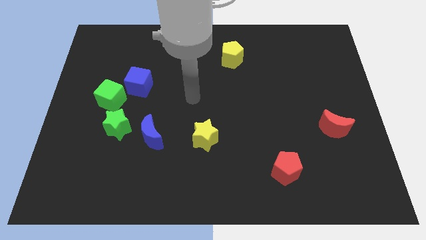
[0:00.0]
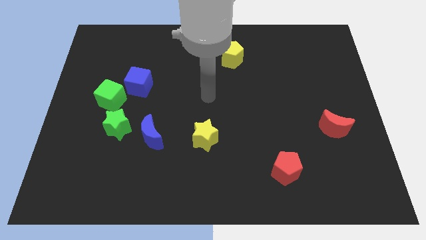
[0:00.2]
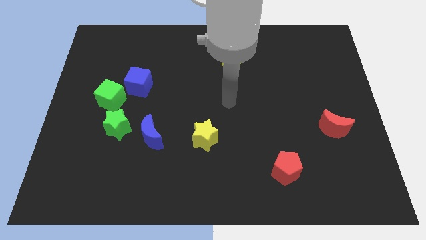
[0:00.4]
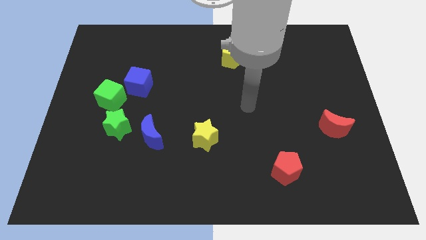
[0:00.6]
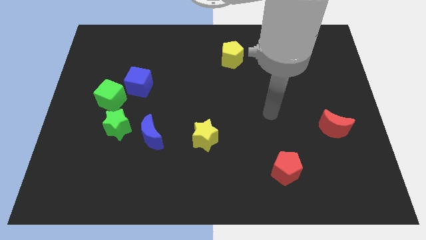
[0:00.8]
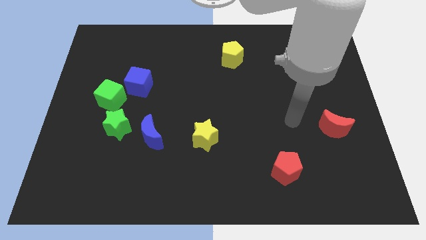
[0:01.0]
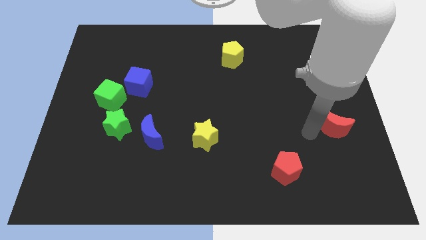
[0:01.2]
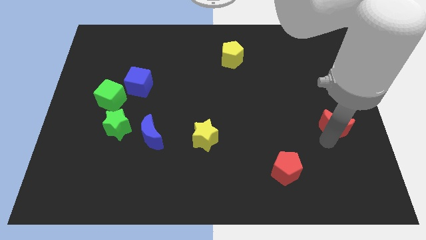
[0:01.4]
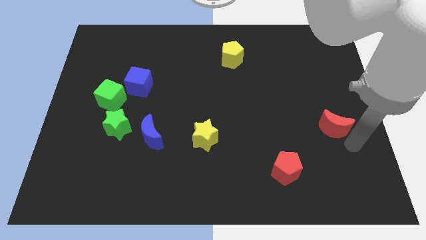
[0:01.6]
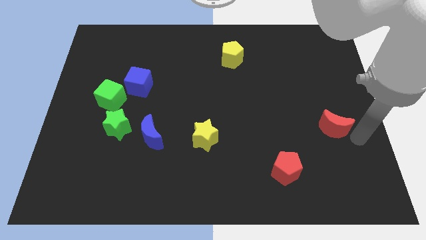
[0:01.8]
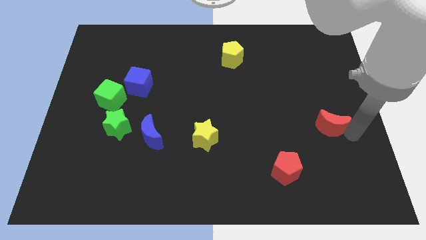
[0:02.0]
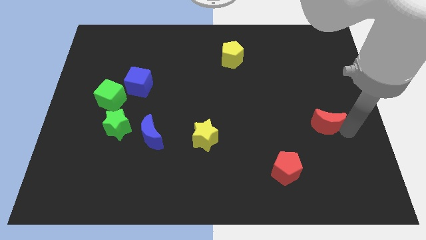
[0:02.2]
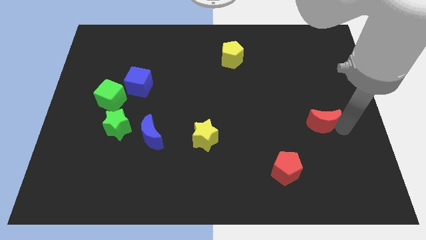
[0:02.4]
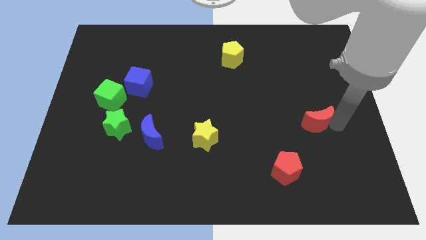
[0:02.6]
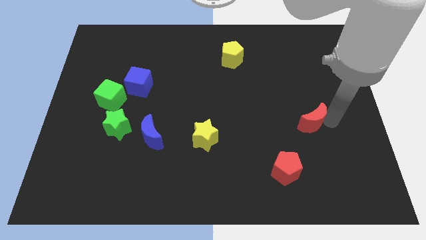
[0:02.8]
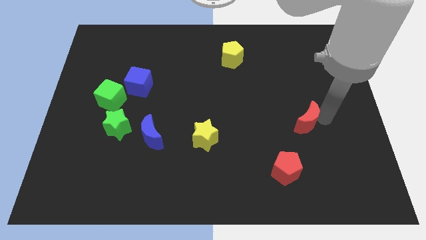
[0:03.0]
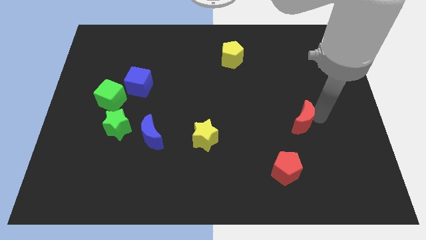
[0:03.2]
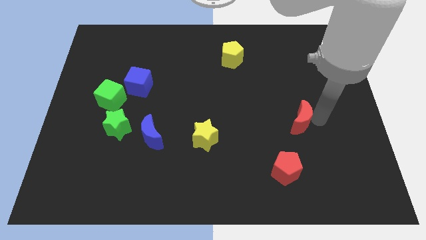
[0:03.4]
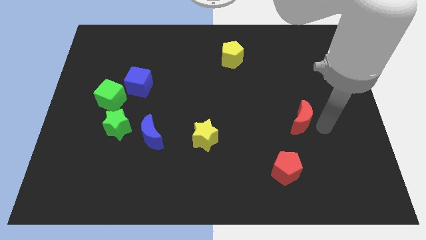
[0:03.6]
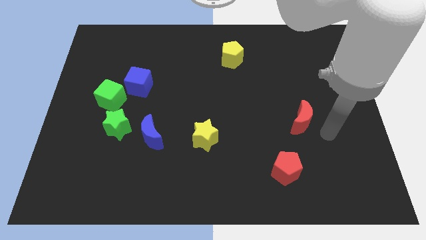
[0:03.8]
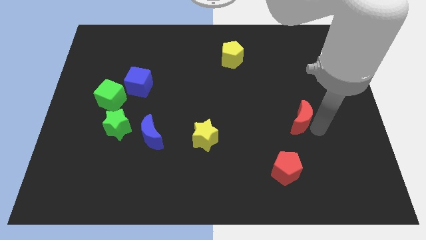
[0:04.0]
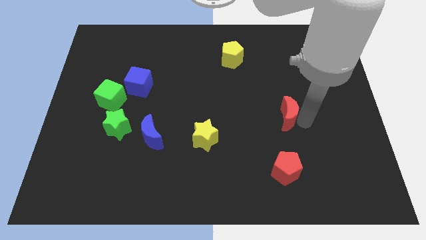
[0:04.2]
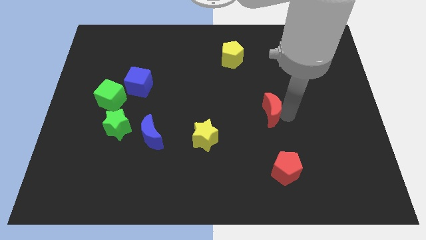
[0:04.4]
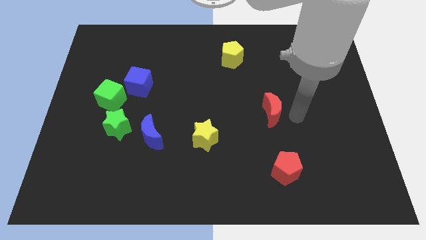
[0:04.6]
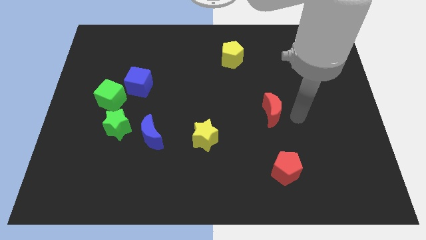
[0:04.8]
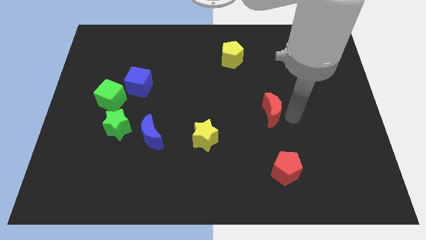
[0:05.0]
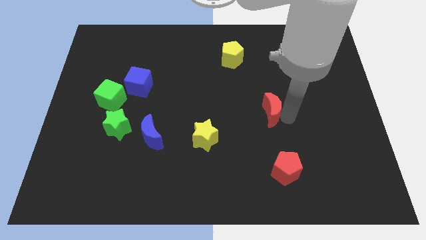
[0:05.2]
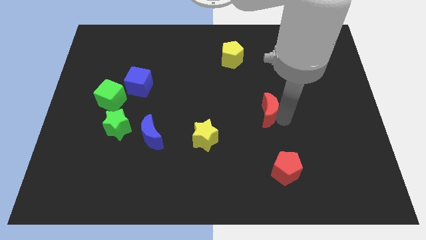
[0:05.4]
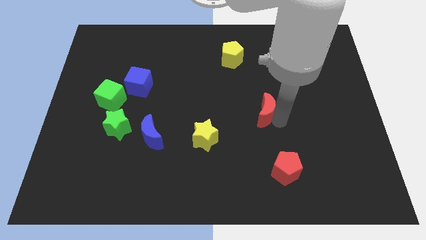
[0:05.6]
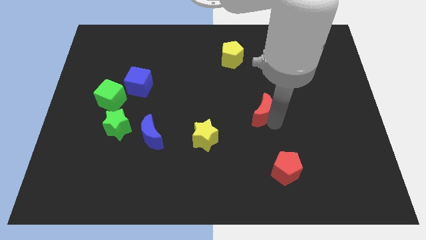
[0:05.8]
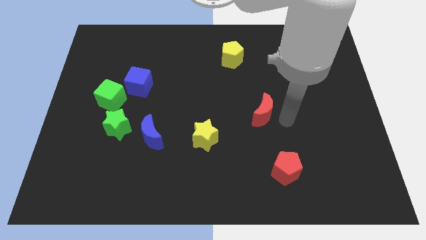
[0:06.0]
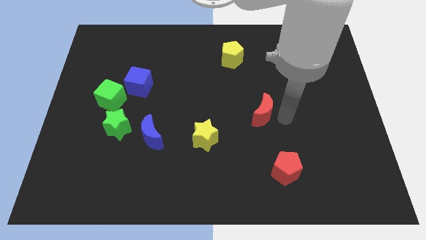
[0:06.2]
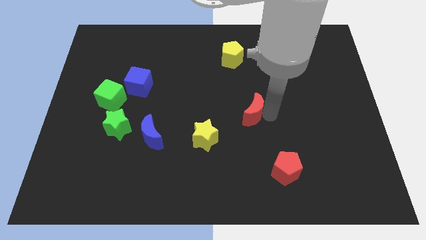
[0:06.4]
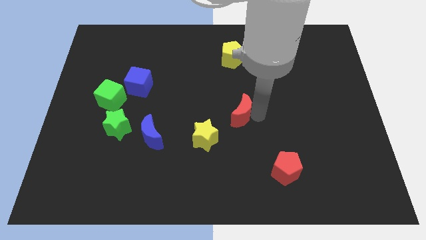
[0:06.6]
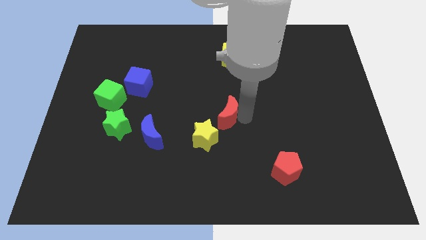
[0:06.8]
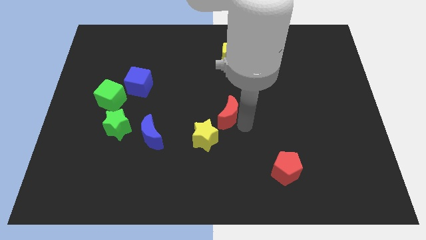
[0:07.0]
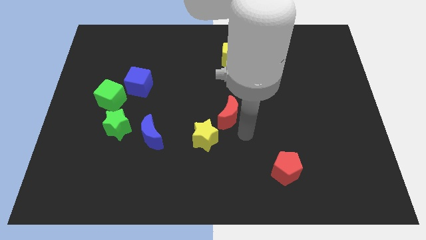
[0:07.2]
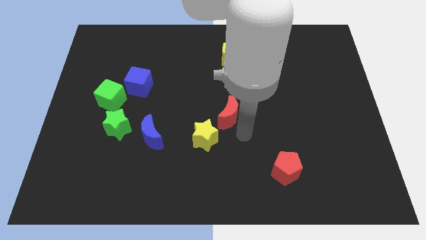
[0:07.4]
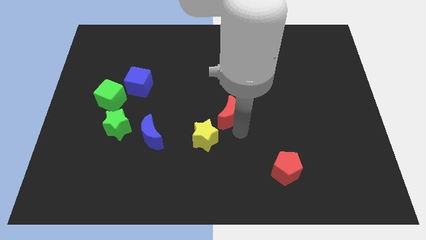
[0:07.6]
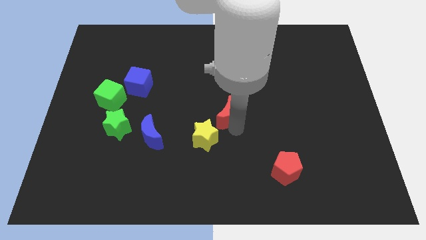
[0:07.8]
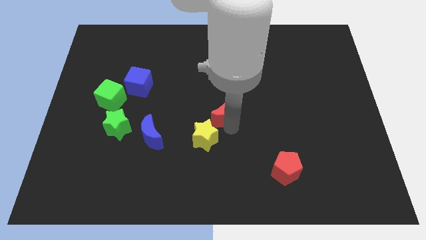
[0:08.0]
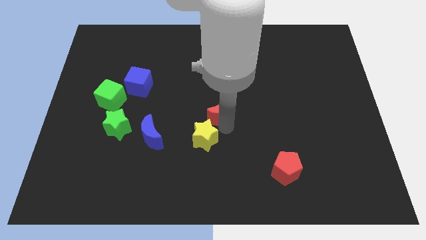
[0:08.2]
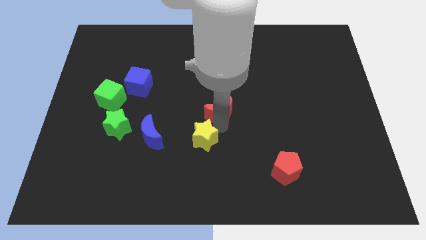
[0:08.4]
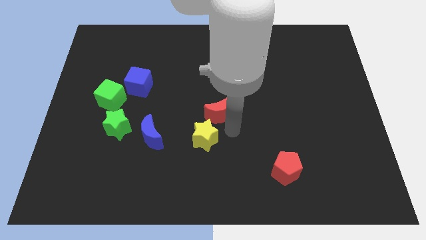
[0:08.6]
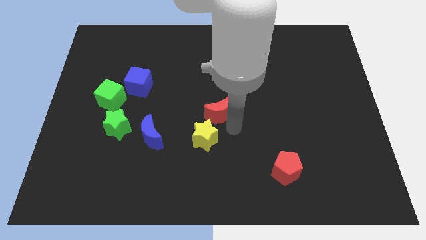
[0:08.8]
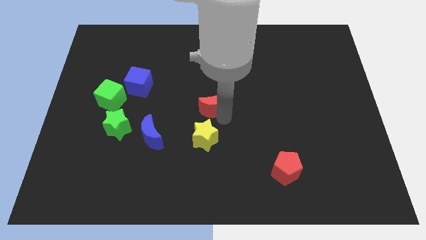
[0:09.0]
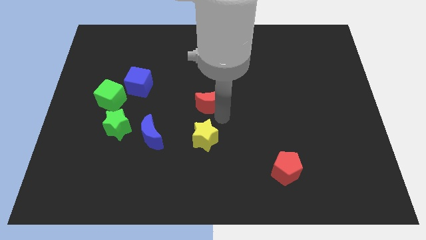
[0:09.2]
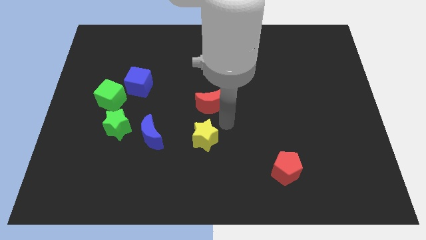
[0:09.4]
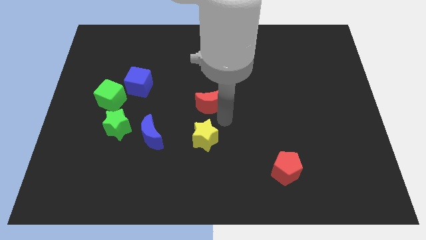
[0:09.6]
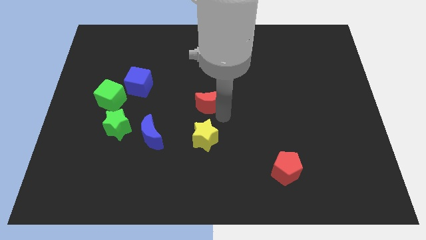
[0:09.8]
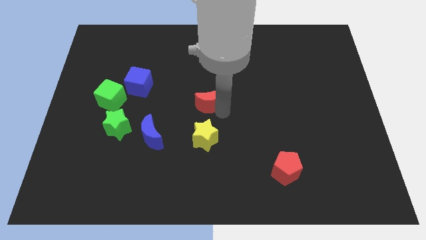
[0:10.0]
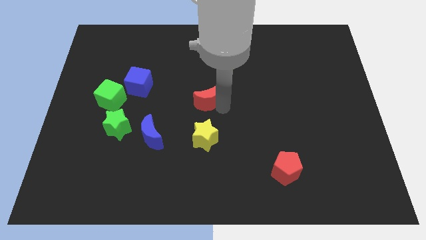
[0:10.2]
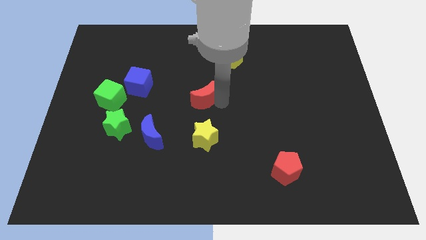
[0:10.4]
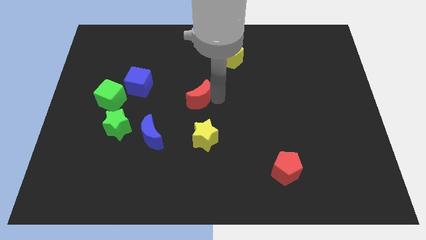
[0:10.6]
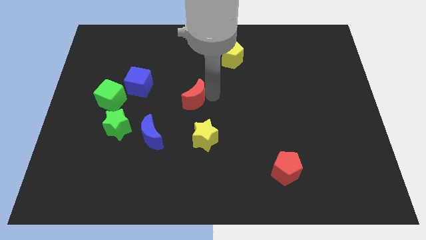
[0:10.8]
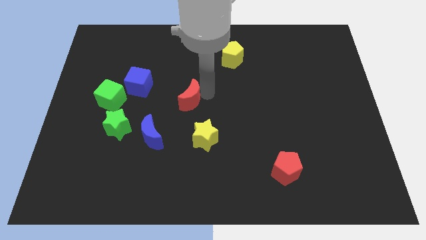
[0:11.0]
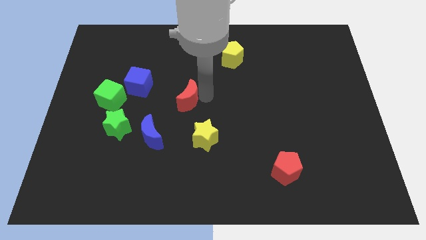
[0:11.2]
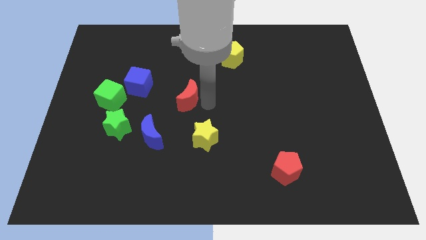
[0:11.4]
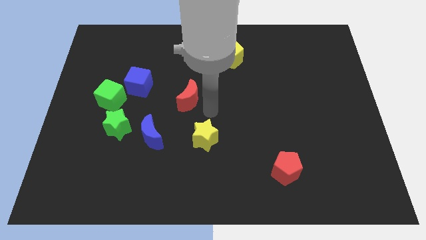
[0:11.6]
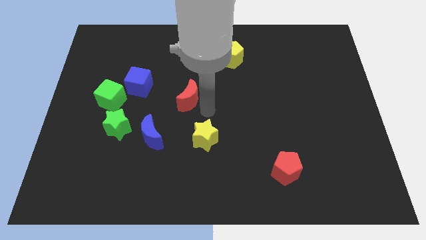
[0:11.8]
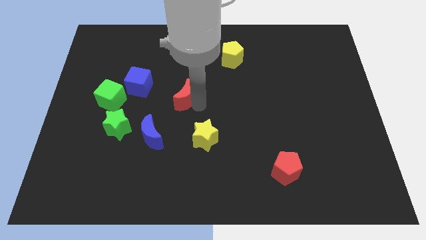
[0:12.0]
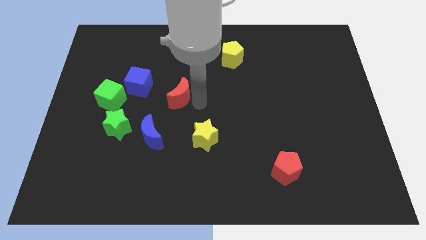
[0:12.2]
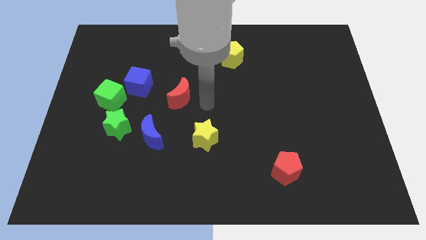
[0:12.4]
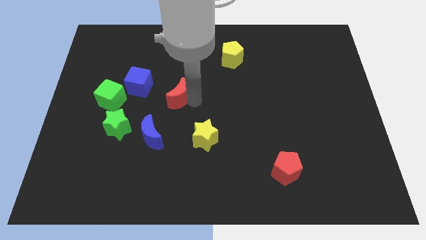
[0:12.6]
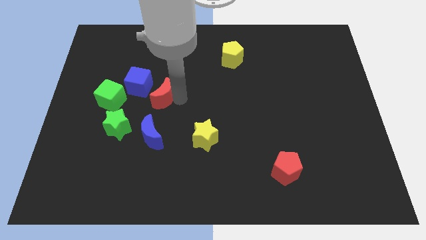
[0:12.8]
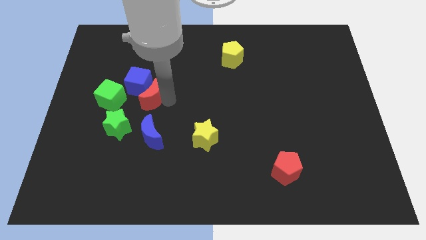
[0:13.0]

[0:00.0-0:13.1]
move the red moon towards the blue cube

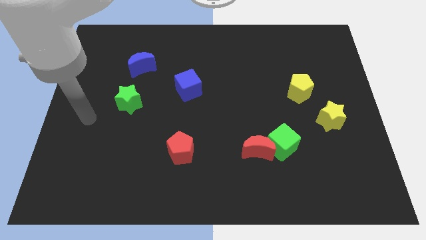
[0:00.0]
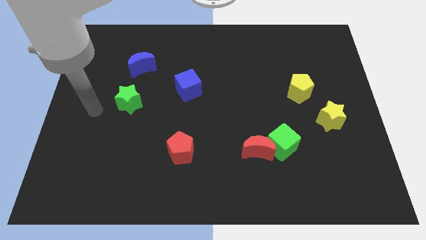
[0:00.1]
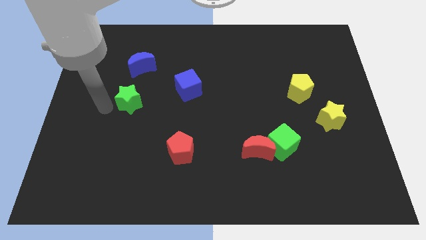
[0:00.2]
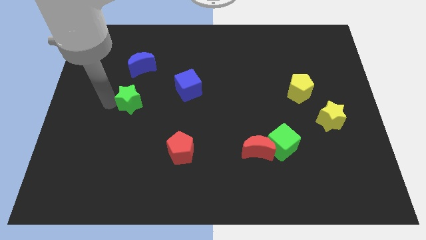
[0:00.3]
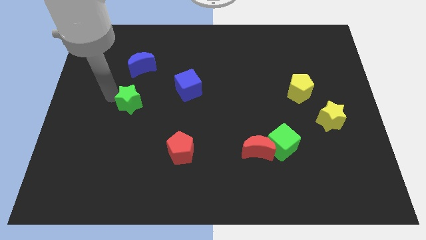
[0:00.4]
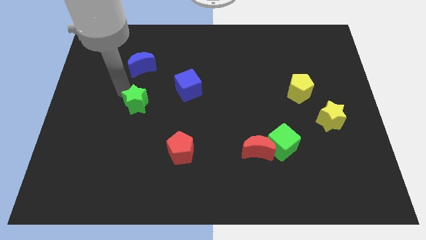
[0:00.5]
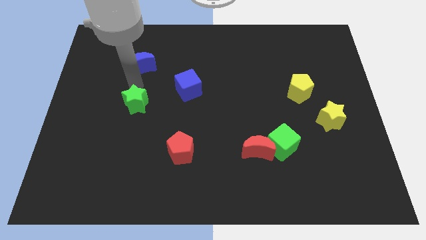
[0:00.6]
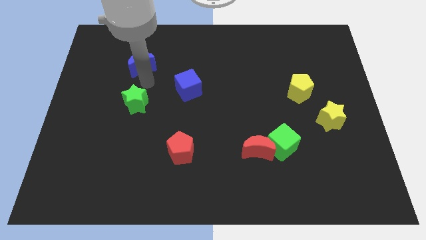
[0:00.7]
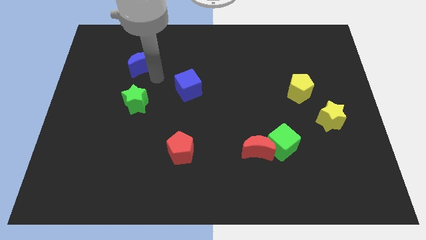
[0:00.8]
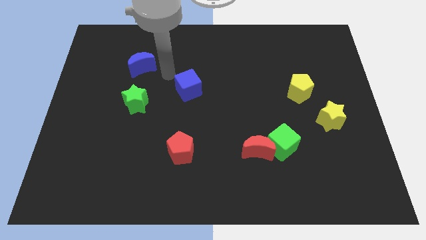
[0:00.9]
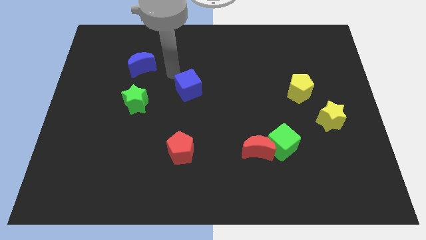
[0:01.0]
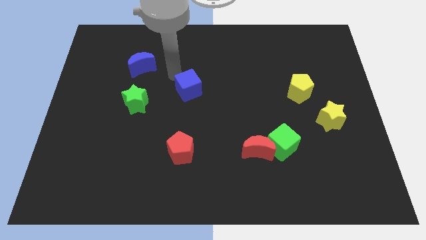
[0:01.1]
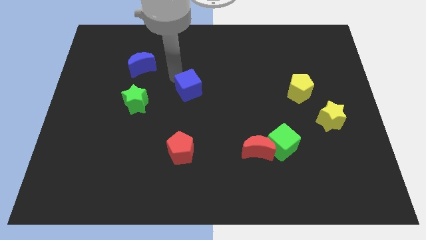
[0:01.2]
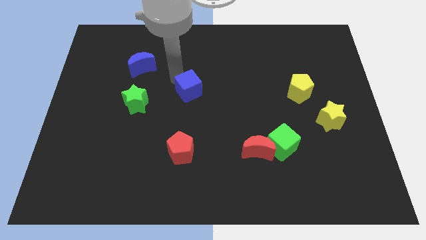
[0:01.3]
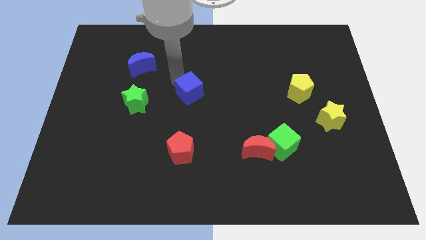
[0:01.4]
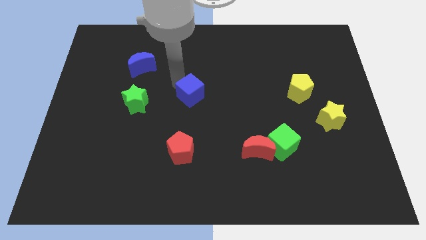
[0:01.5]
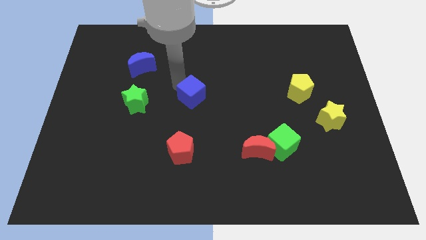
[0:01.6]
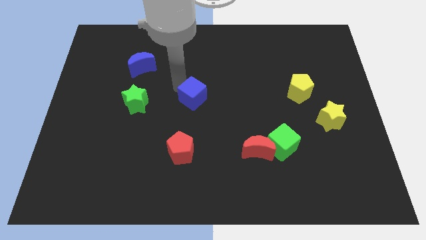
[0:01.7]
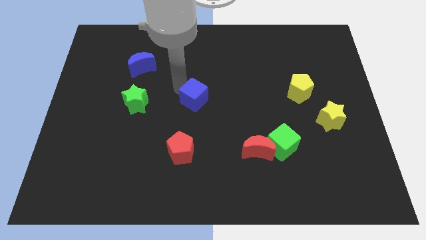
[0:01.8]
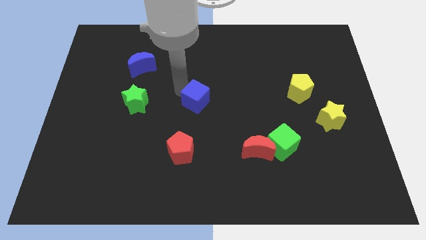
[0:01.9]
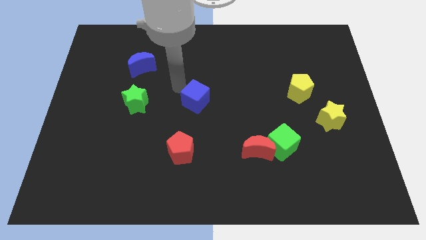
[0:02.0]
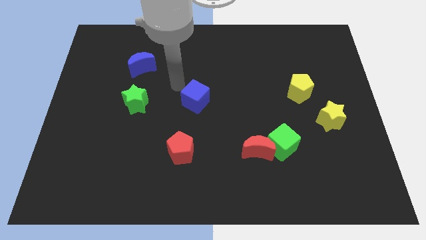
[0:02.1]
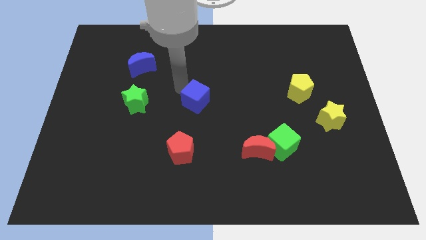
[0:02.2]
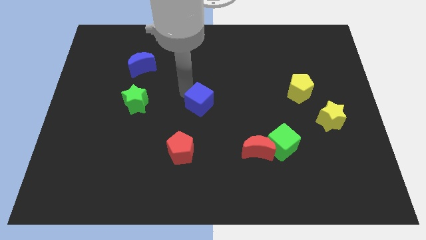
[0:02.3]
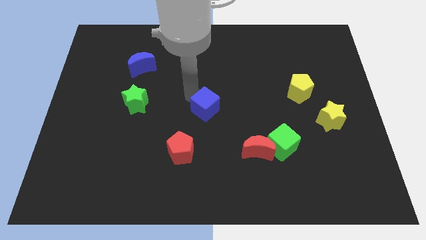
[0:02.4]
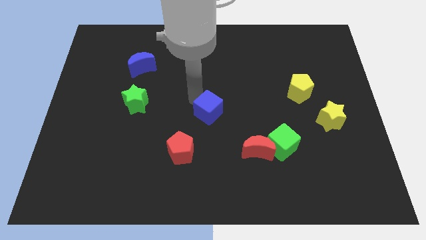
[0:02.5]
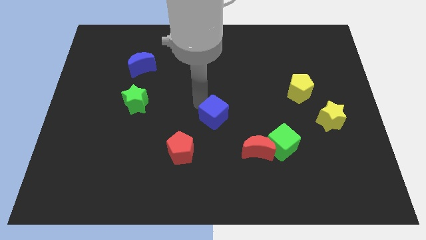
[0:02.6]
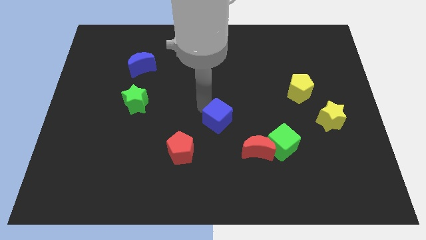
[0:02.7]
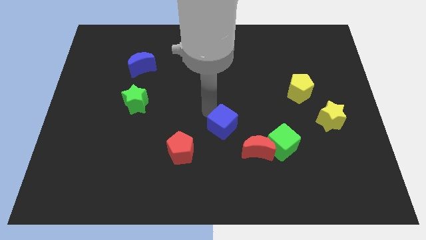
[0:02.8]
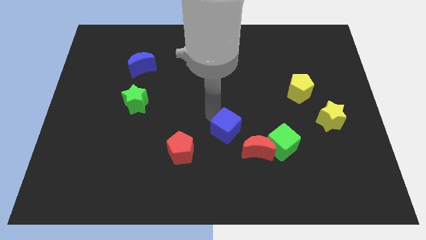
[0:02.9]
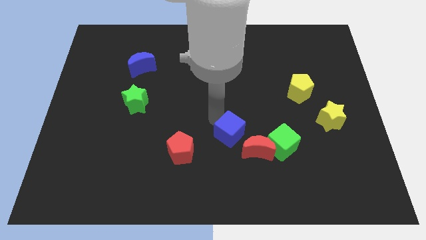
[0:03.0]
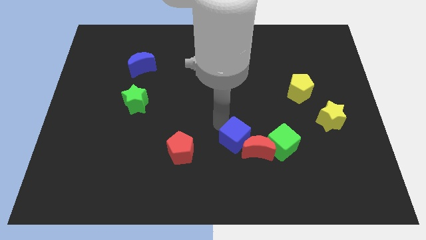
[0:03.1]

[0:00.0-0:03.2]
push the blue cube next to the red moon
